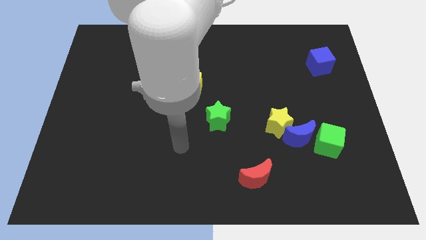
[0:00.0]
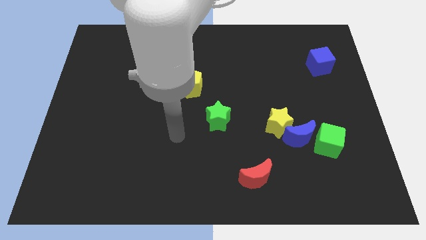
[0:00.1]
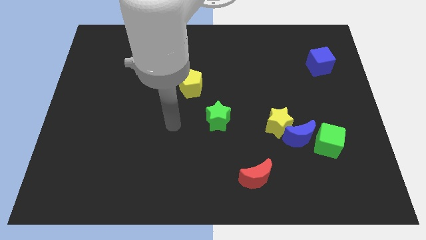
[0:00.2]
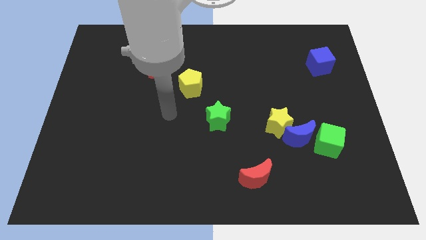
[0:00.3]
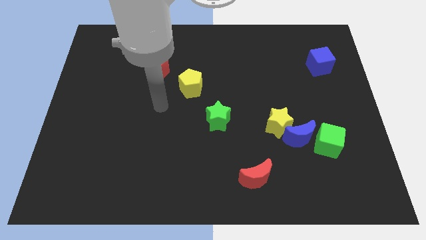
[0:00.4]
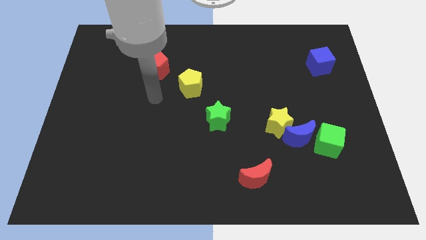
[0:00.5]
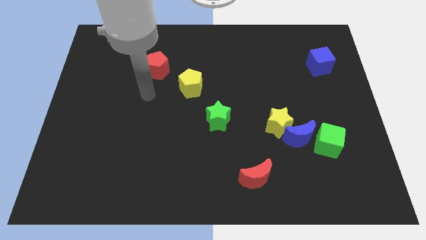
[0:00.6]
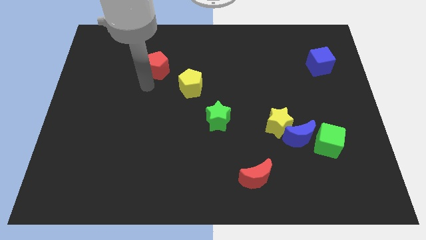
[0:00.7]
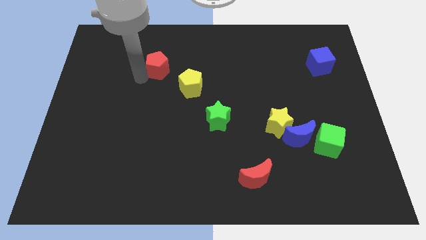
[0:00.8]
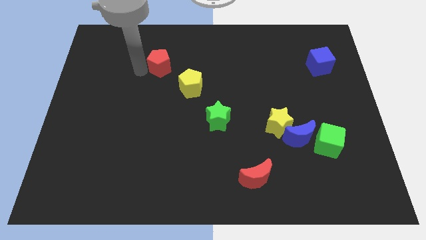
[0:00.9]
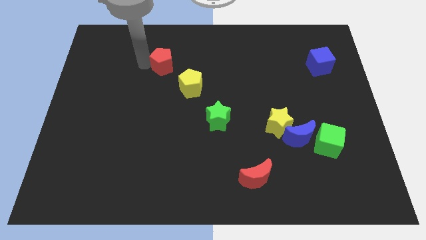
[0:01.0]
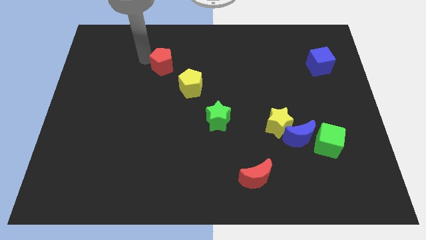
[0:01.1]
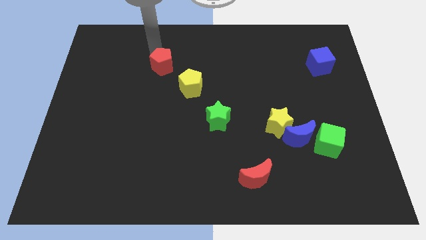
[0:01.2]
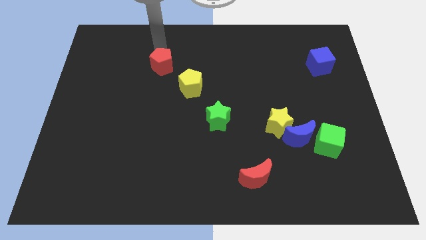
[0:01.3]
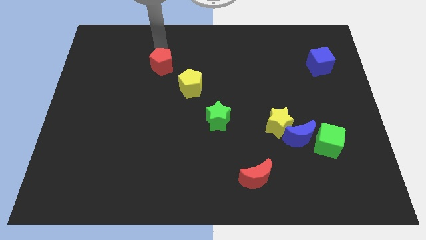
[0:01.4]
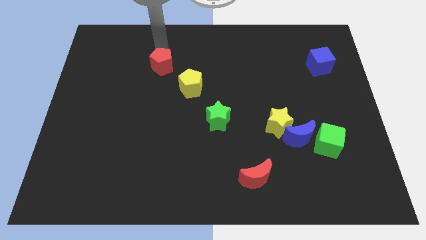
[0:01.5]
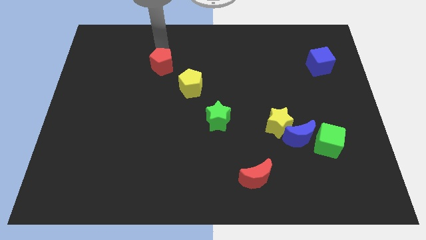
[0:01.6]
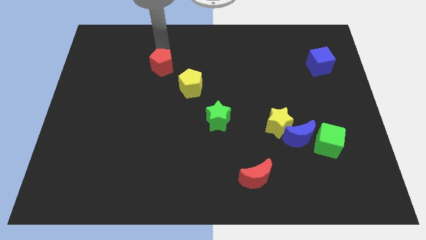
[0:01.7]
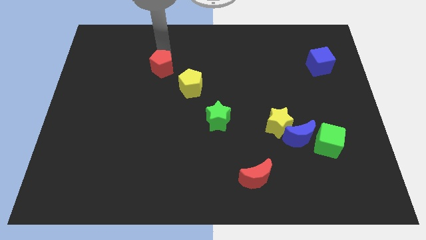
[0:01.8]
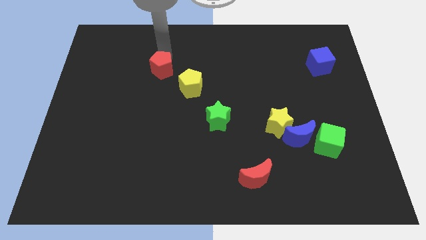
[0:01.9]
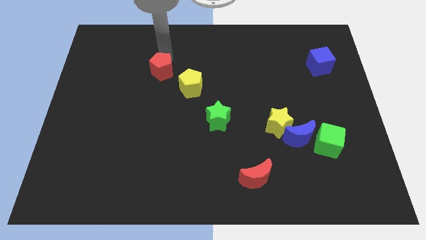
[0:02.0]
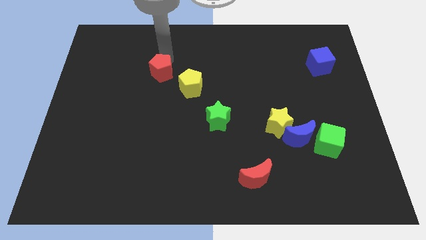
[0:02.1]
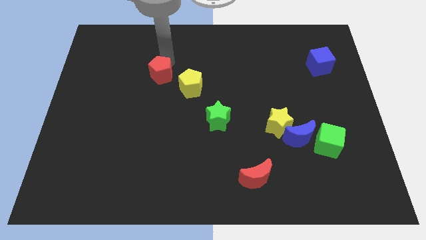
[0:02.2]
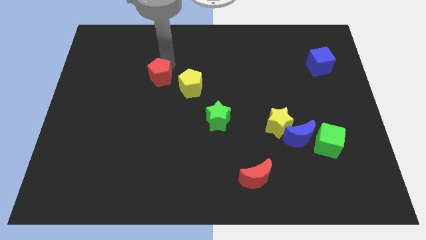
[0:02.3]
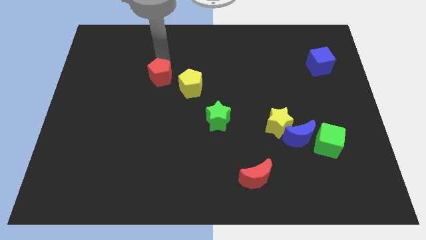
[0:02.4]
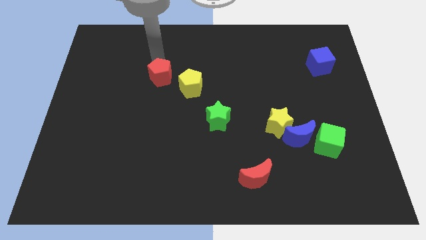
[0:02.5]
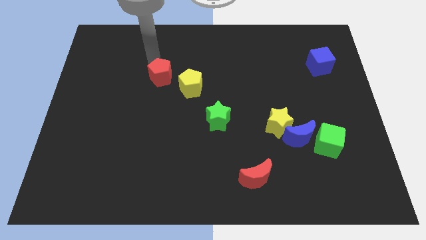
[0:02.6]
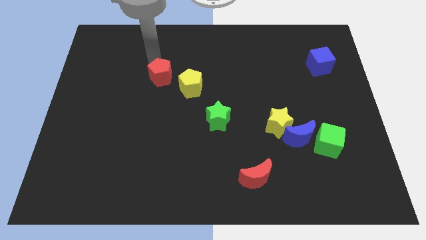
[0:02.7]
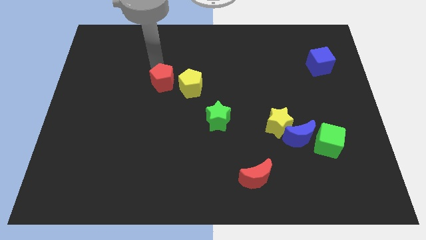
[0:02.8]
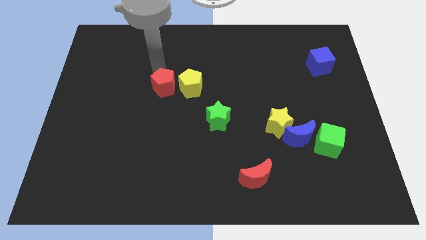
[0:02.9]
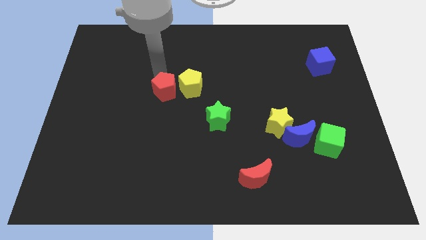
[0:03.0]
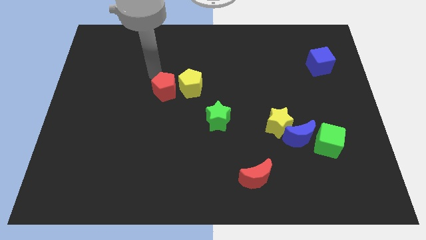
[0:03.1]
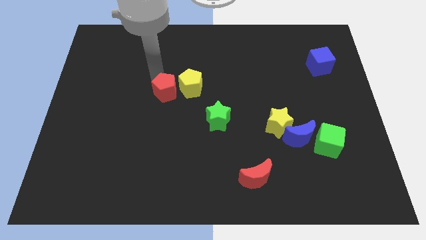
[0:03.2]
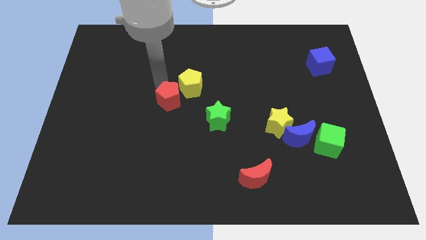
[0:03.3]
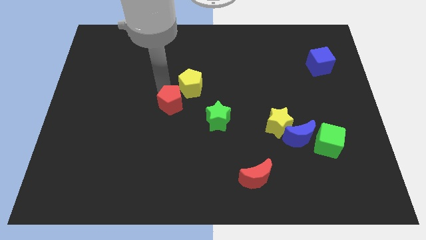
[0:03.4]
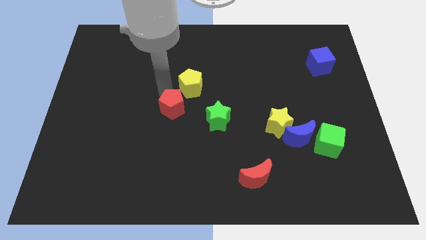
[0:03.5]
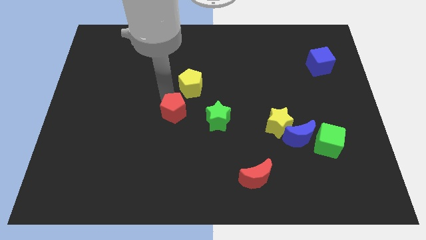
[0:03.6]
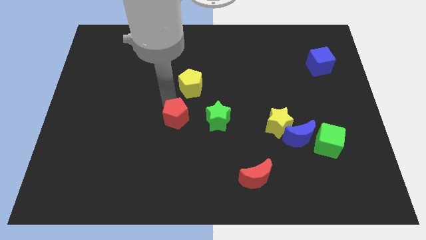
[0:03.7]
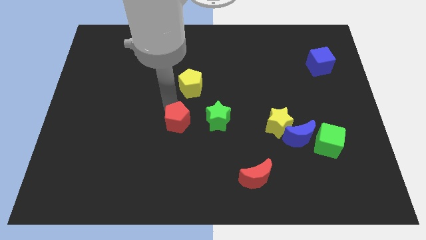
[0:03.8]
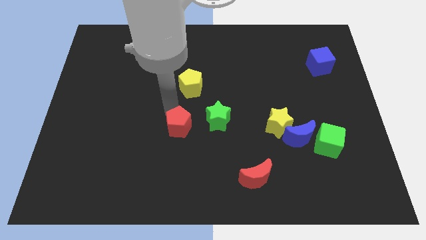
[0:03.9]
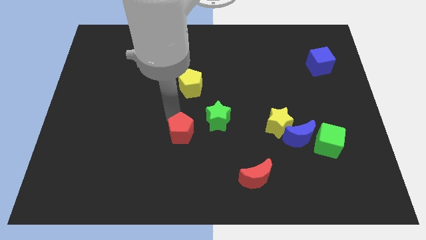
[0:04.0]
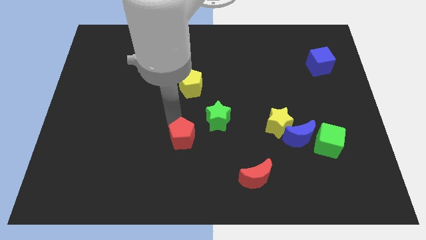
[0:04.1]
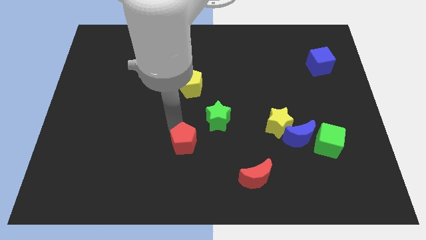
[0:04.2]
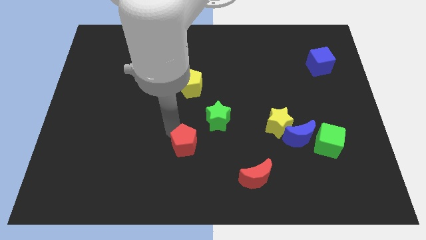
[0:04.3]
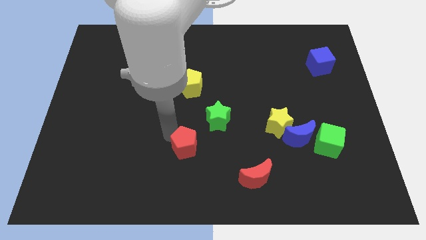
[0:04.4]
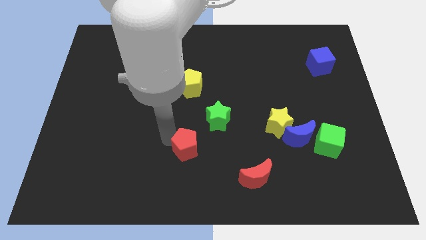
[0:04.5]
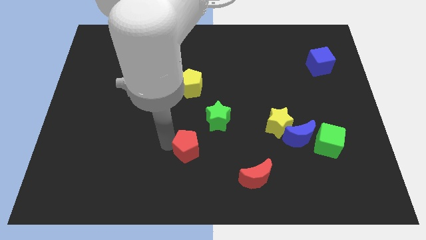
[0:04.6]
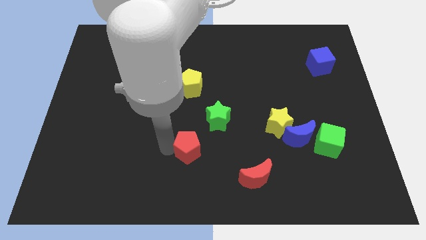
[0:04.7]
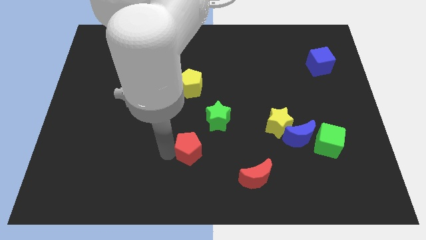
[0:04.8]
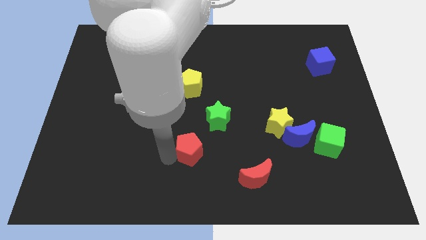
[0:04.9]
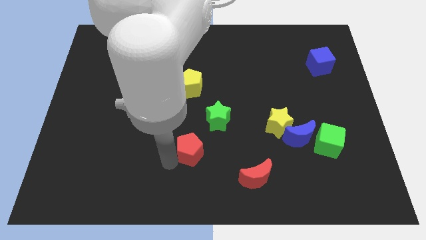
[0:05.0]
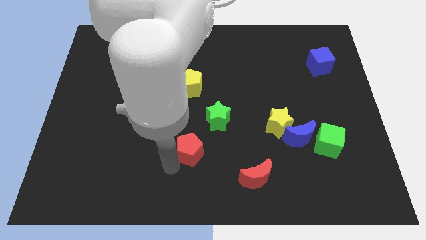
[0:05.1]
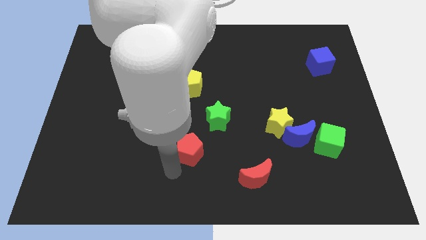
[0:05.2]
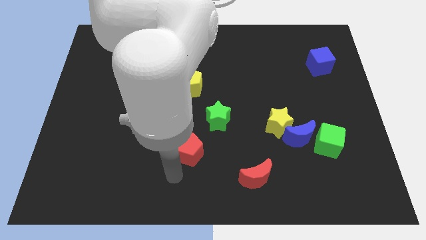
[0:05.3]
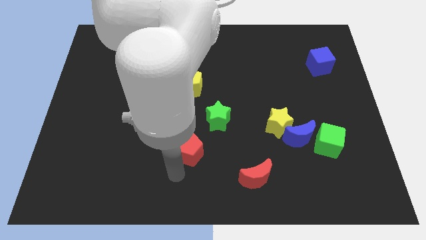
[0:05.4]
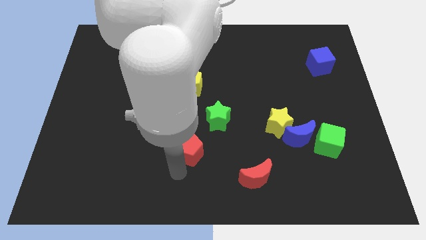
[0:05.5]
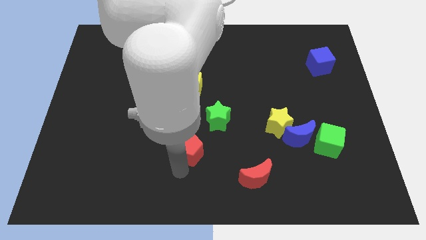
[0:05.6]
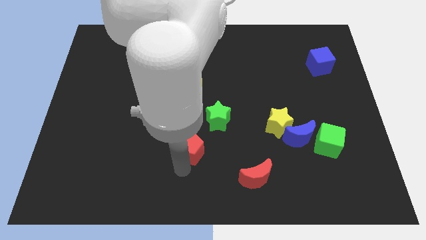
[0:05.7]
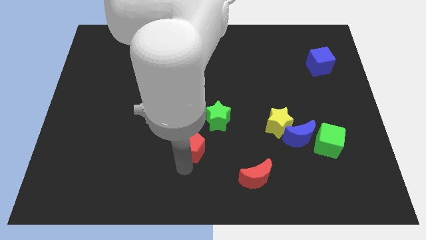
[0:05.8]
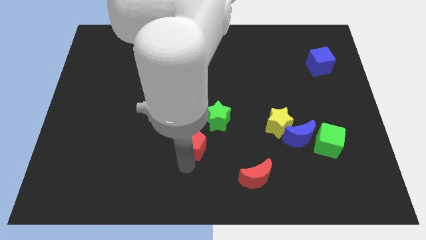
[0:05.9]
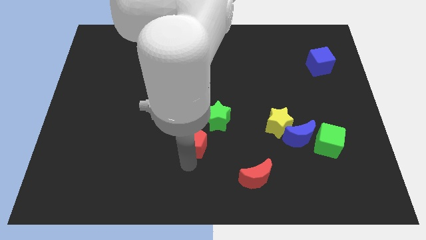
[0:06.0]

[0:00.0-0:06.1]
push the red pentagon downwards and right

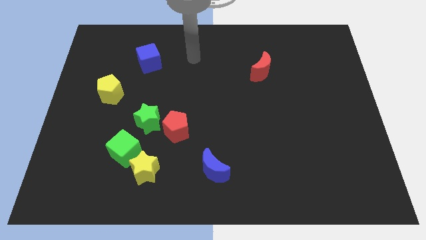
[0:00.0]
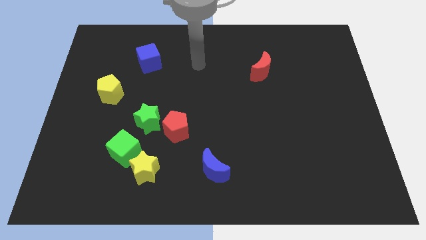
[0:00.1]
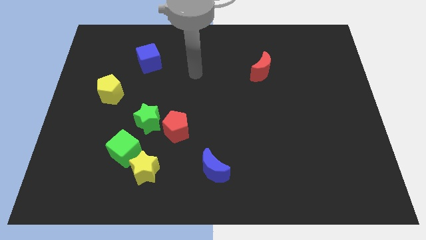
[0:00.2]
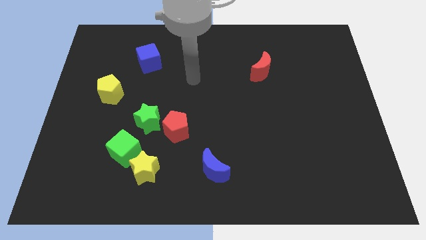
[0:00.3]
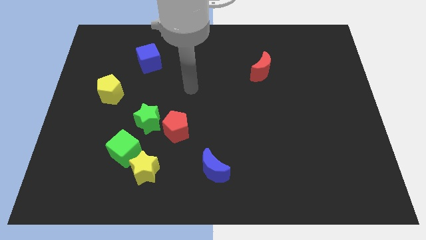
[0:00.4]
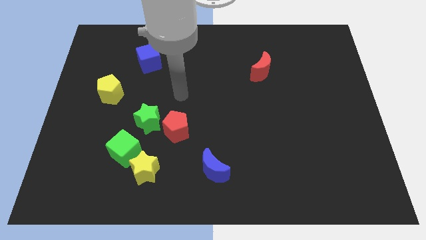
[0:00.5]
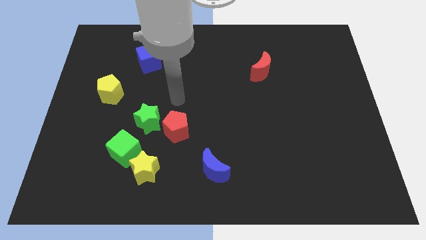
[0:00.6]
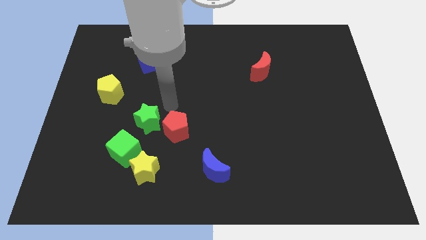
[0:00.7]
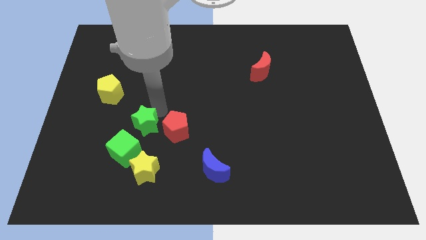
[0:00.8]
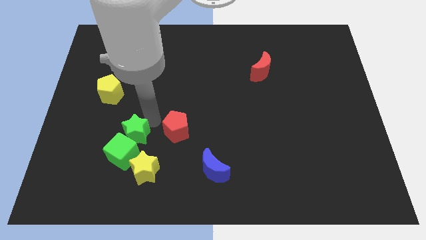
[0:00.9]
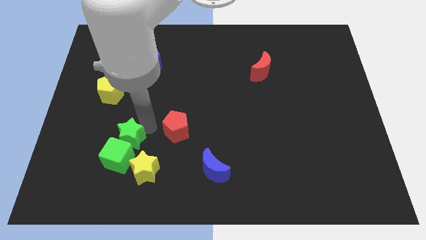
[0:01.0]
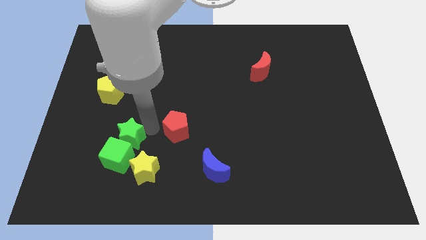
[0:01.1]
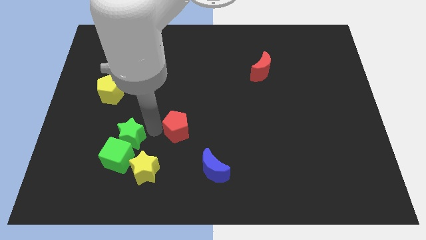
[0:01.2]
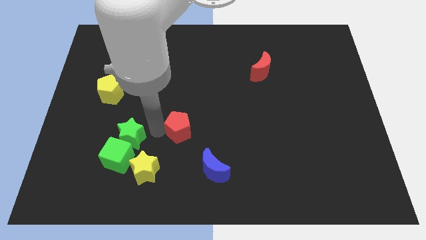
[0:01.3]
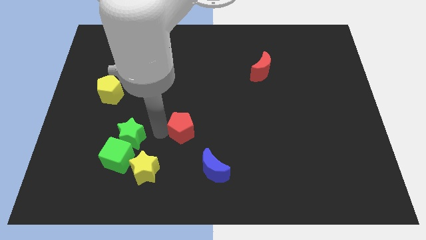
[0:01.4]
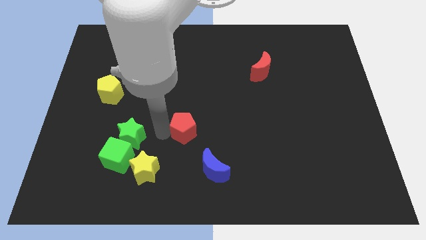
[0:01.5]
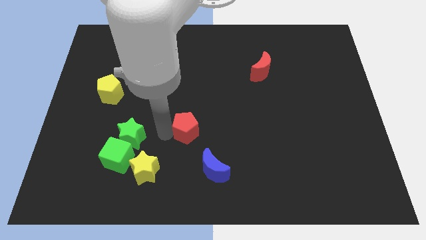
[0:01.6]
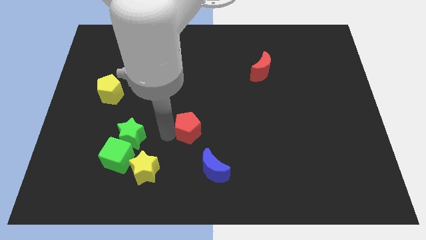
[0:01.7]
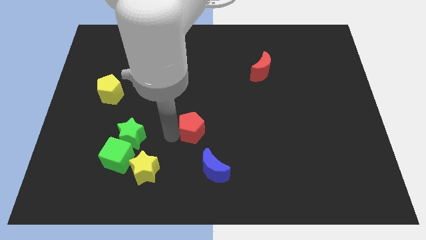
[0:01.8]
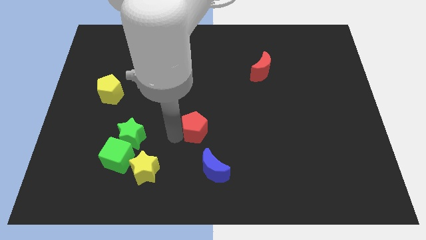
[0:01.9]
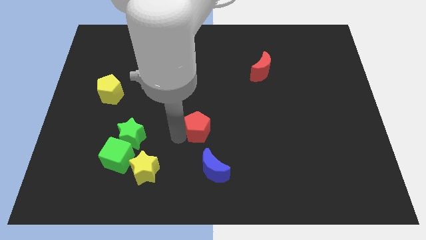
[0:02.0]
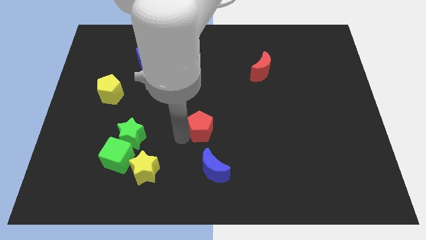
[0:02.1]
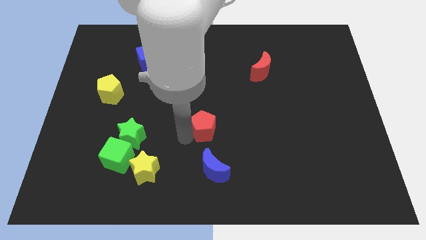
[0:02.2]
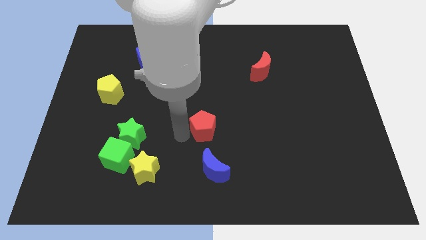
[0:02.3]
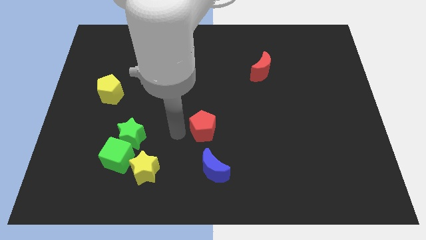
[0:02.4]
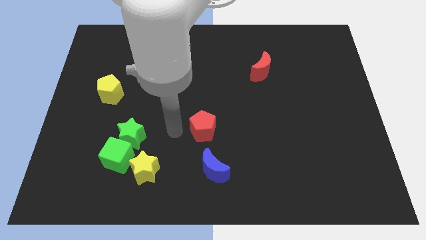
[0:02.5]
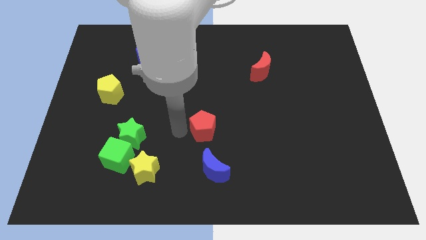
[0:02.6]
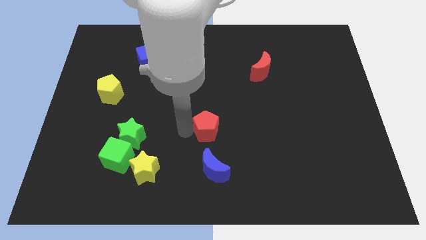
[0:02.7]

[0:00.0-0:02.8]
push the red pentagon to the right a bit
